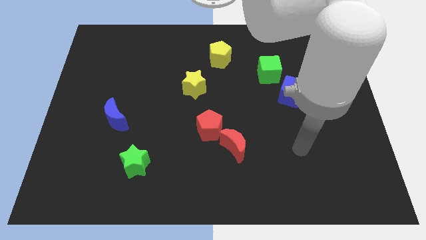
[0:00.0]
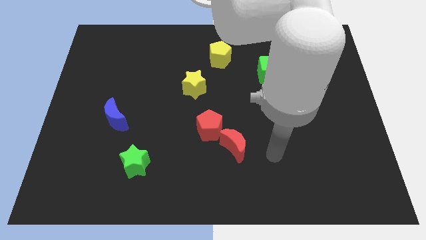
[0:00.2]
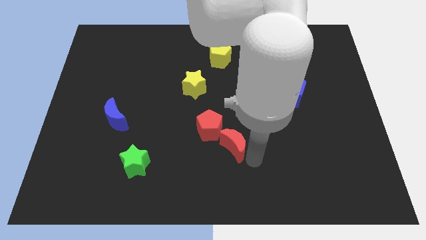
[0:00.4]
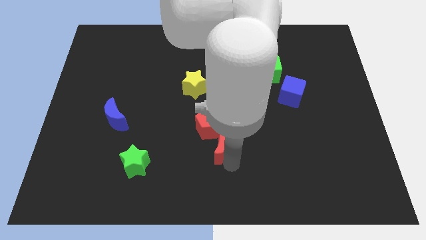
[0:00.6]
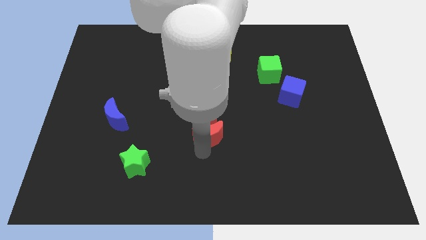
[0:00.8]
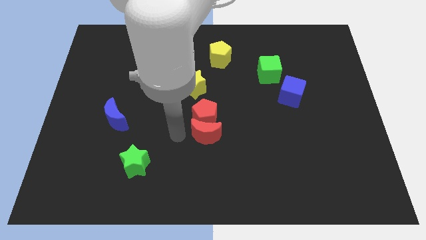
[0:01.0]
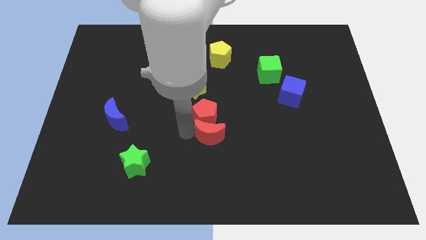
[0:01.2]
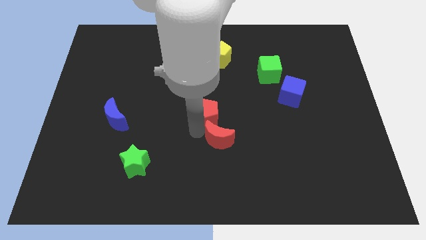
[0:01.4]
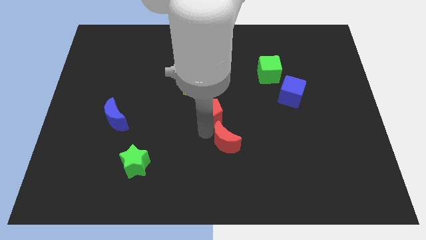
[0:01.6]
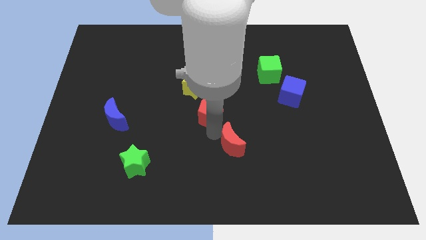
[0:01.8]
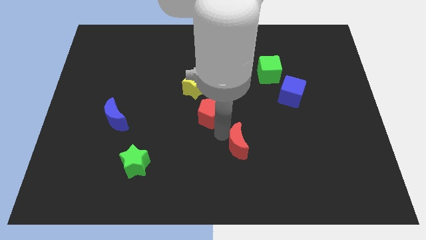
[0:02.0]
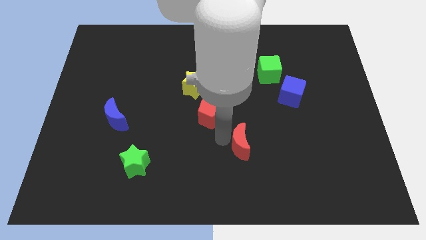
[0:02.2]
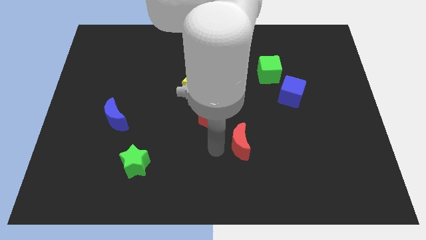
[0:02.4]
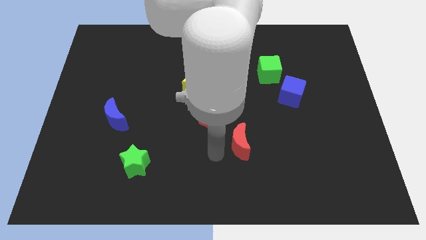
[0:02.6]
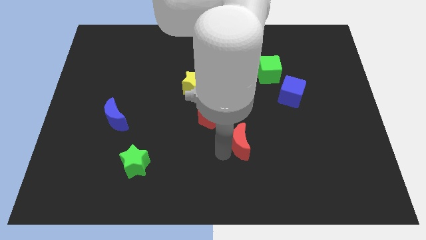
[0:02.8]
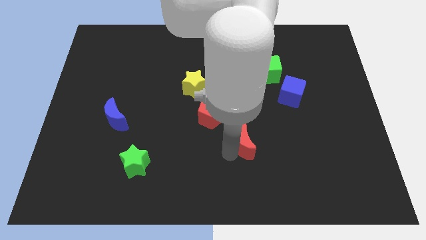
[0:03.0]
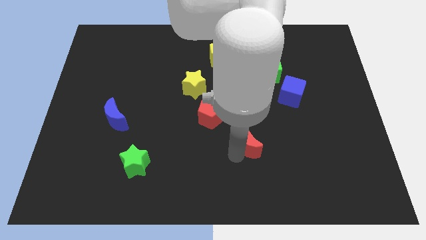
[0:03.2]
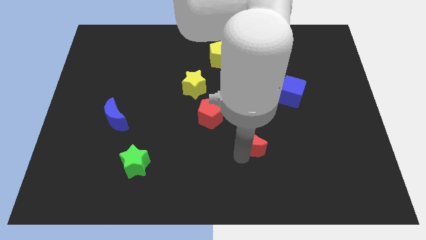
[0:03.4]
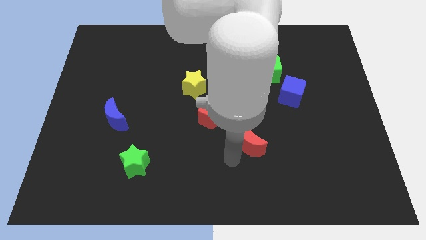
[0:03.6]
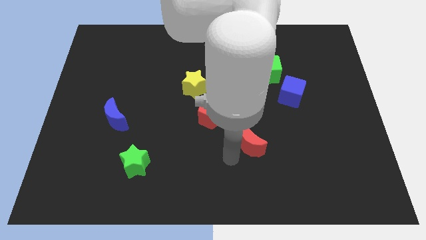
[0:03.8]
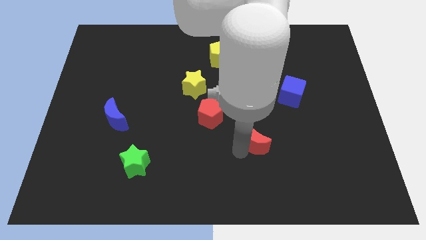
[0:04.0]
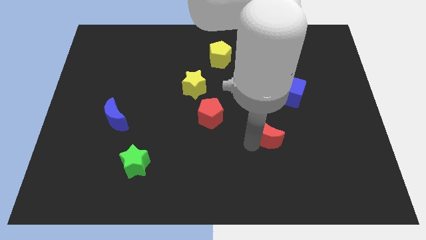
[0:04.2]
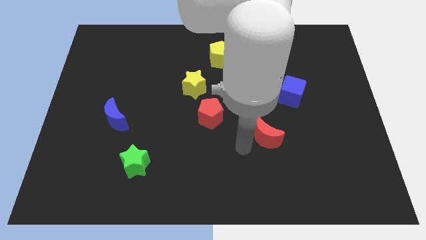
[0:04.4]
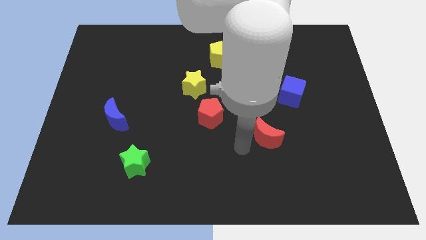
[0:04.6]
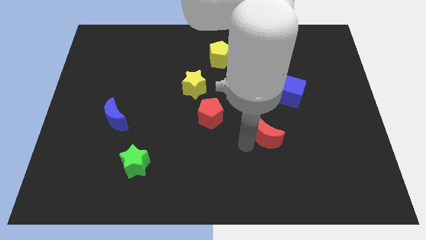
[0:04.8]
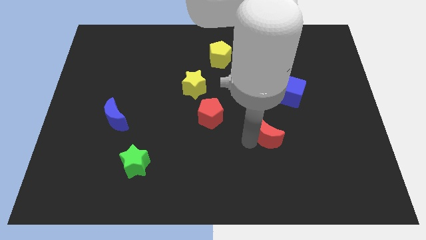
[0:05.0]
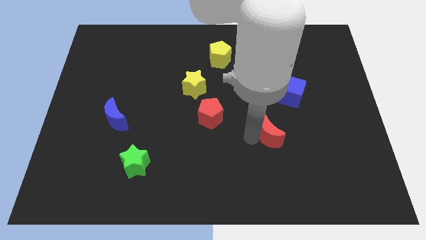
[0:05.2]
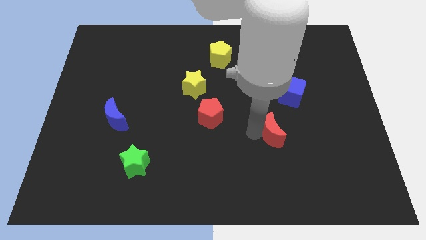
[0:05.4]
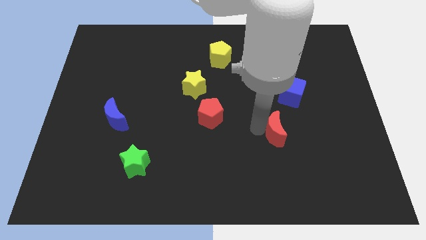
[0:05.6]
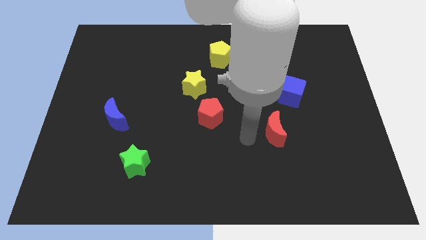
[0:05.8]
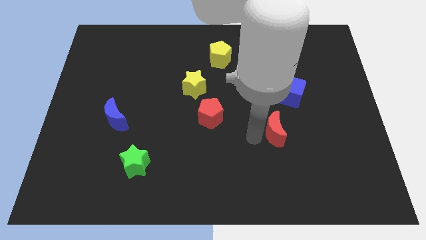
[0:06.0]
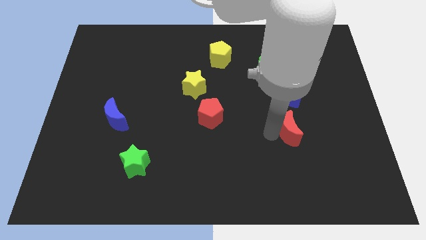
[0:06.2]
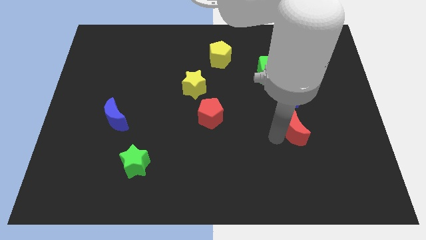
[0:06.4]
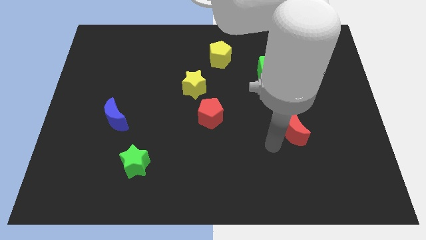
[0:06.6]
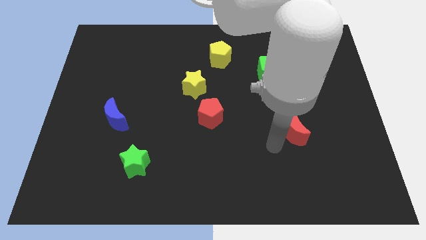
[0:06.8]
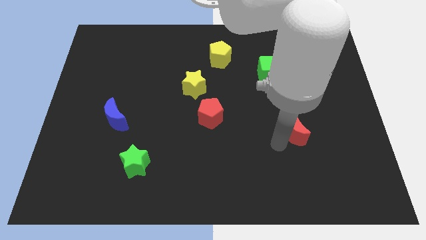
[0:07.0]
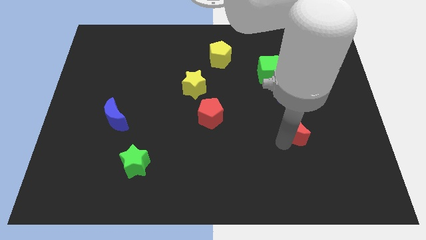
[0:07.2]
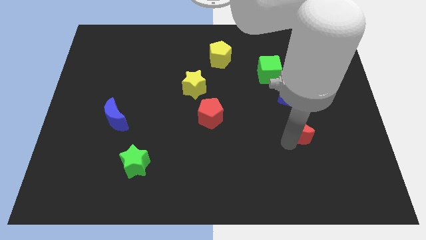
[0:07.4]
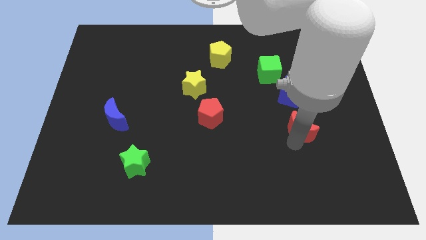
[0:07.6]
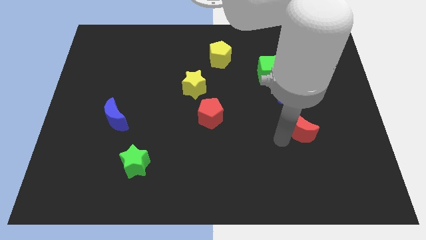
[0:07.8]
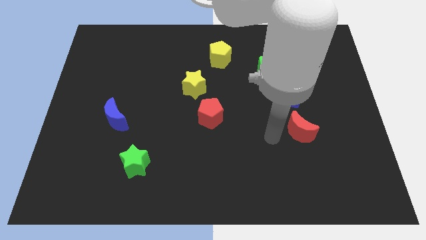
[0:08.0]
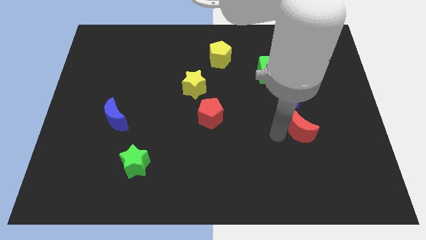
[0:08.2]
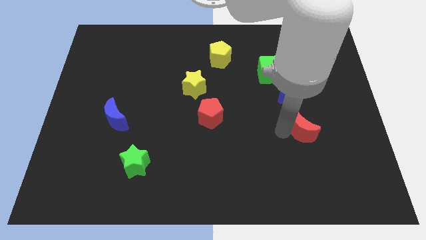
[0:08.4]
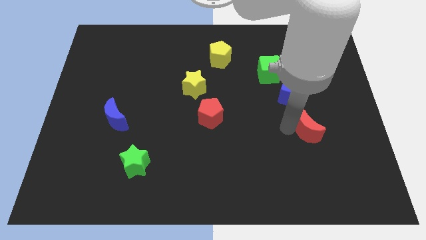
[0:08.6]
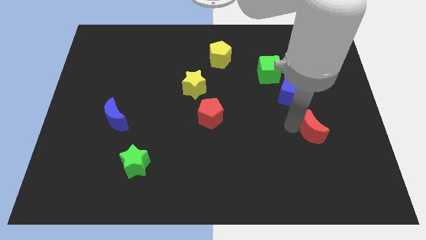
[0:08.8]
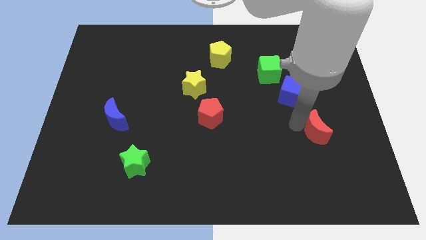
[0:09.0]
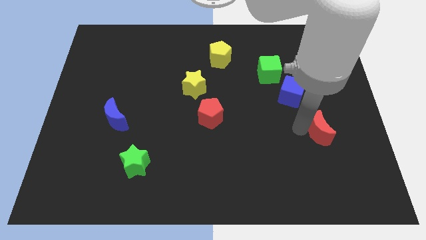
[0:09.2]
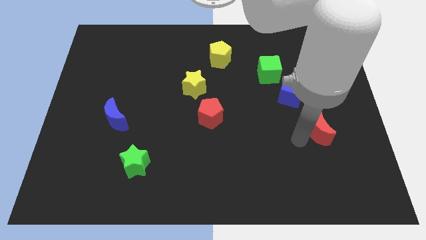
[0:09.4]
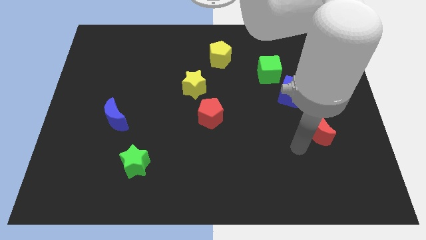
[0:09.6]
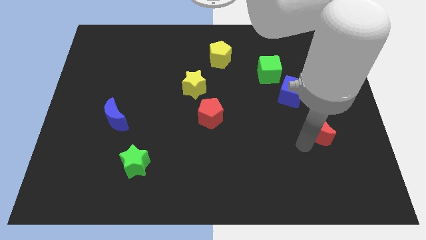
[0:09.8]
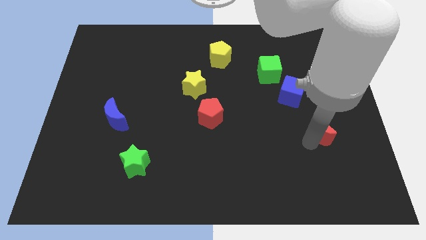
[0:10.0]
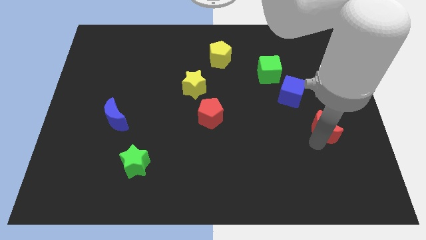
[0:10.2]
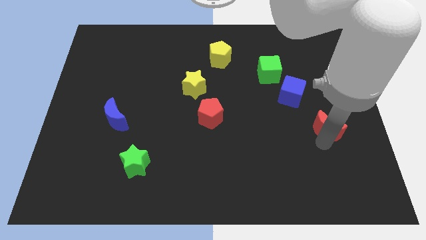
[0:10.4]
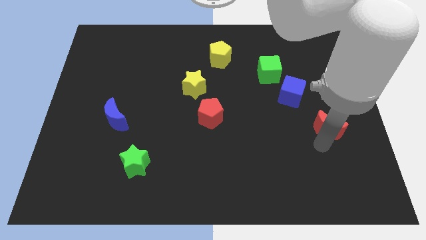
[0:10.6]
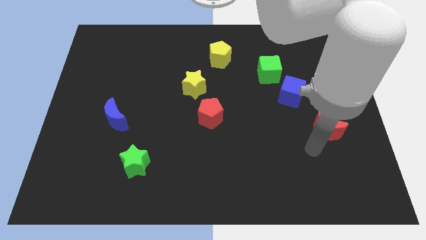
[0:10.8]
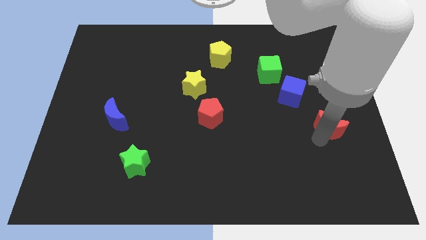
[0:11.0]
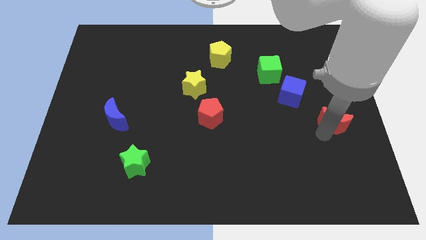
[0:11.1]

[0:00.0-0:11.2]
put the red moon to the center right

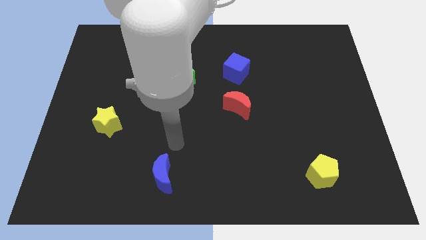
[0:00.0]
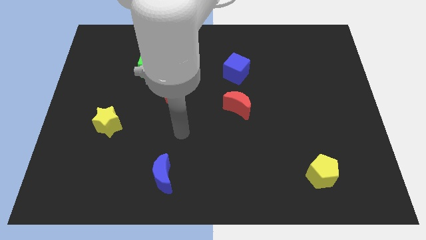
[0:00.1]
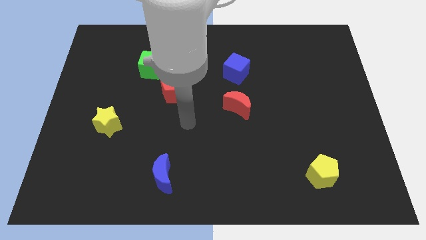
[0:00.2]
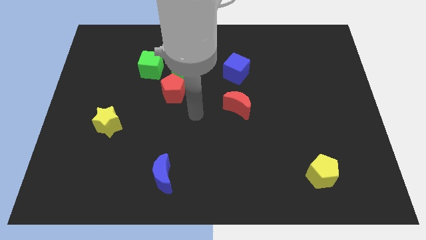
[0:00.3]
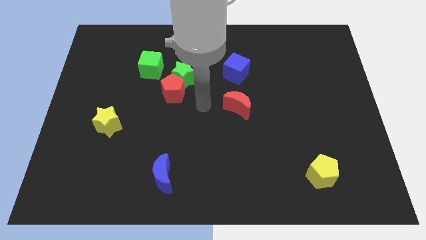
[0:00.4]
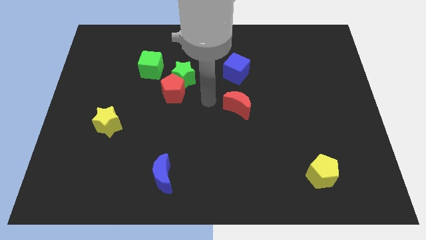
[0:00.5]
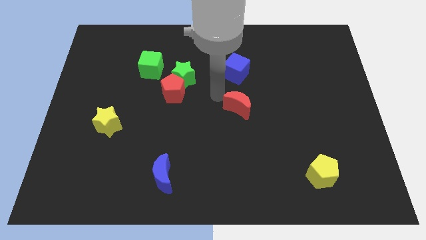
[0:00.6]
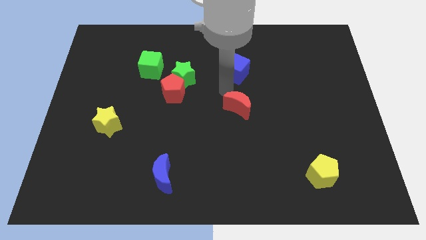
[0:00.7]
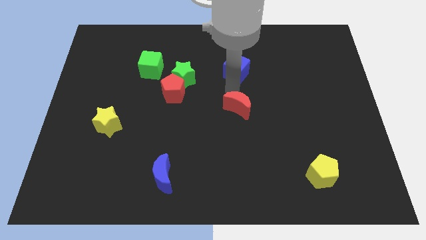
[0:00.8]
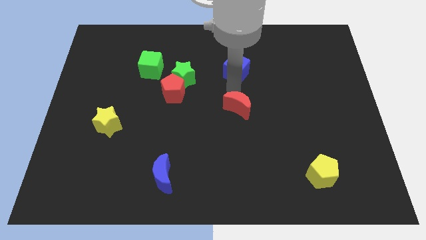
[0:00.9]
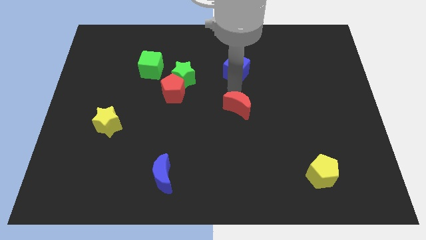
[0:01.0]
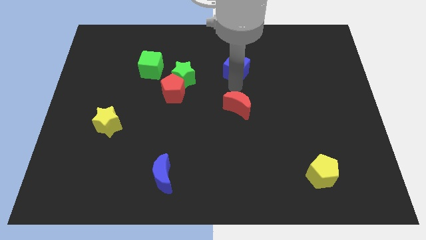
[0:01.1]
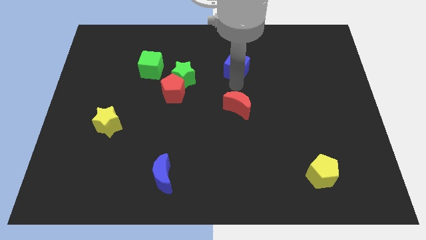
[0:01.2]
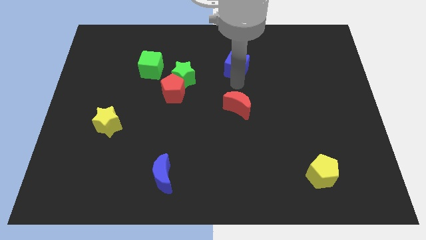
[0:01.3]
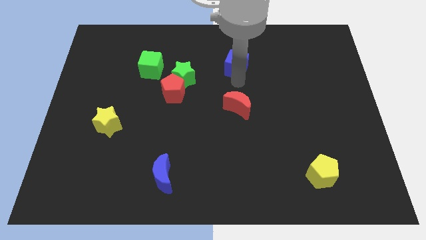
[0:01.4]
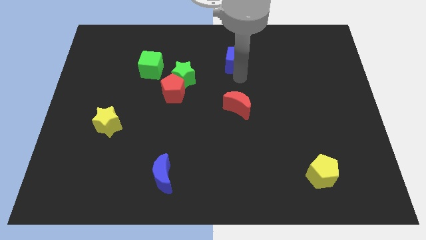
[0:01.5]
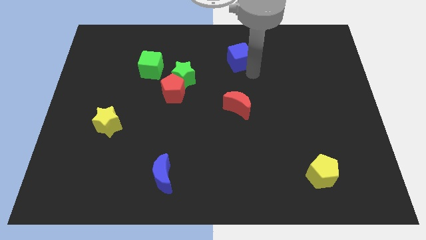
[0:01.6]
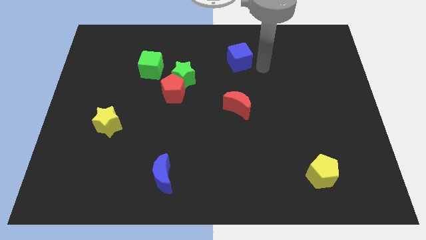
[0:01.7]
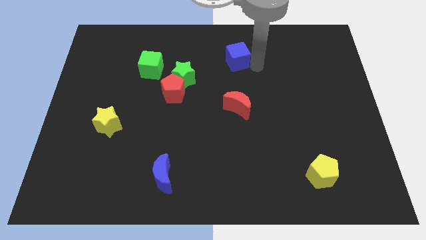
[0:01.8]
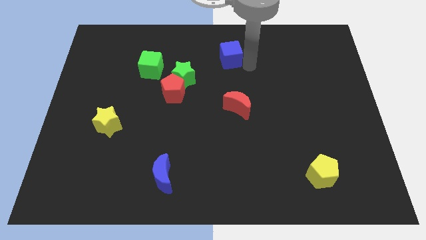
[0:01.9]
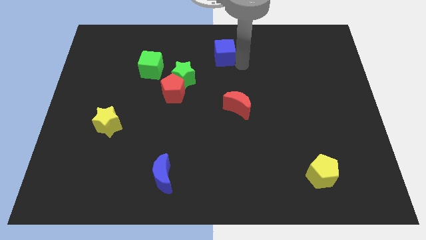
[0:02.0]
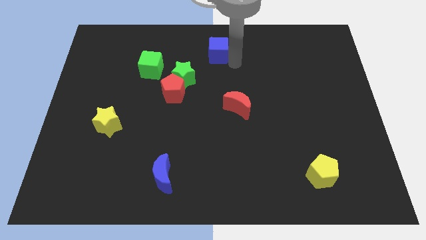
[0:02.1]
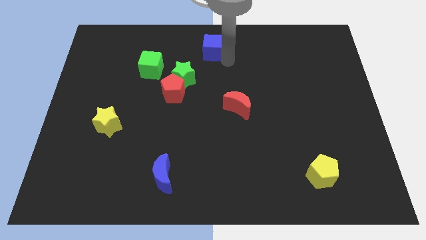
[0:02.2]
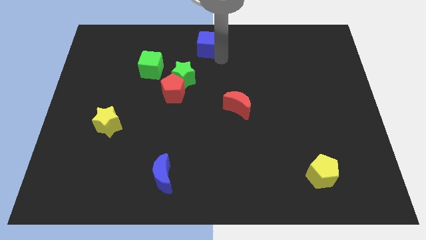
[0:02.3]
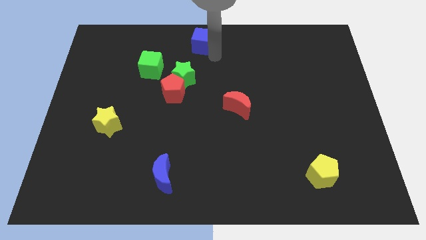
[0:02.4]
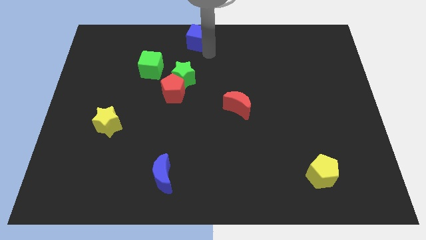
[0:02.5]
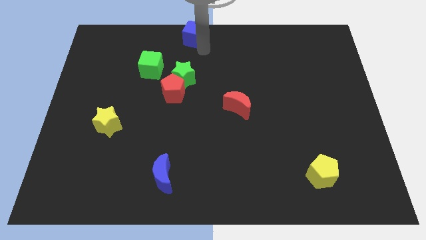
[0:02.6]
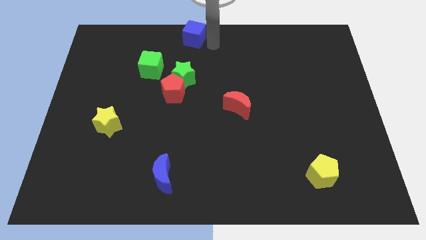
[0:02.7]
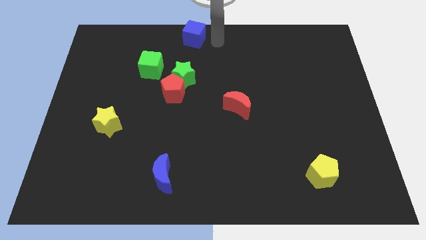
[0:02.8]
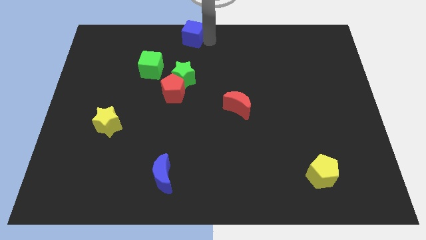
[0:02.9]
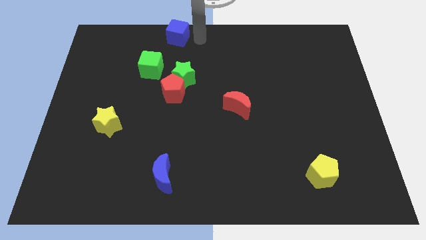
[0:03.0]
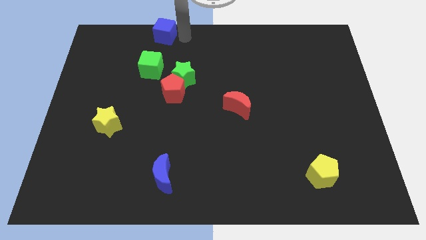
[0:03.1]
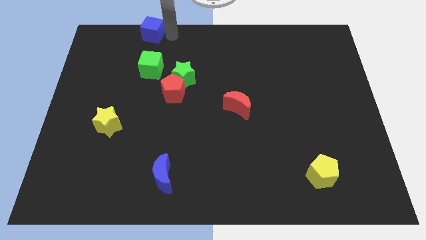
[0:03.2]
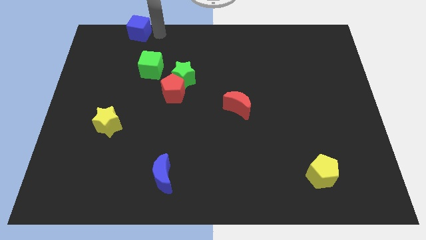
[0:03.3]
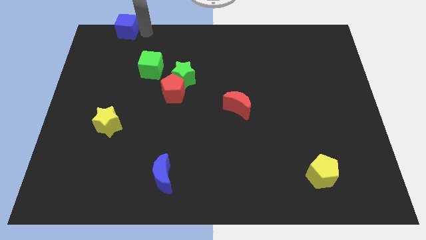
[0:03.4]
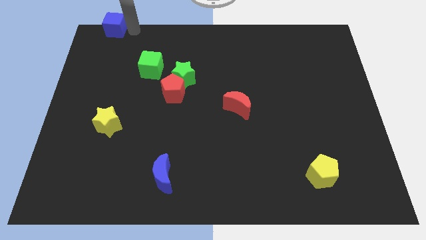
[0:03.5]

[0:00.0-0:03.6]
push the blue cube to the top left
